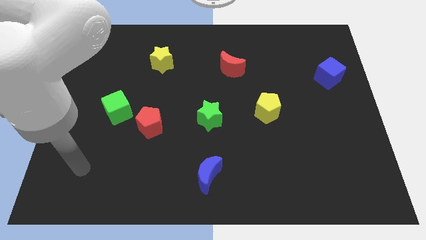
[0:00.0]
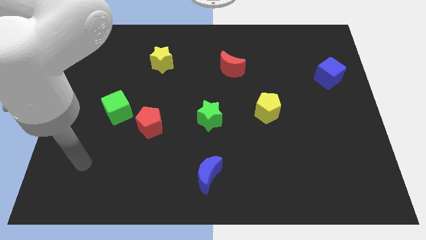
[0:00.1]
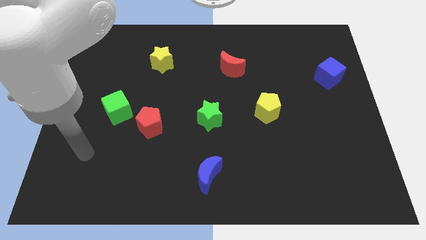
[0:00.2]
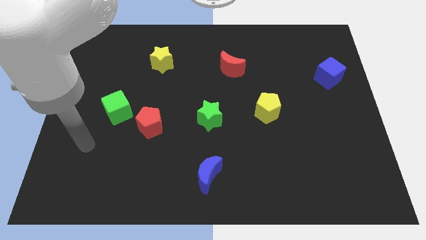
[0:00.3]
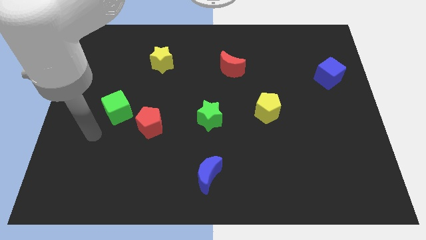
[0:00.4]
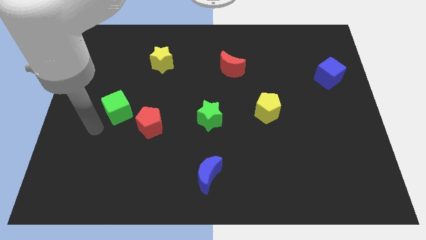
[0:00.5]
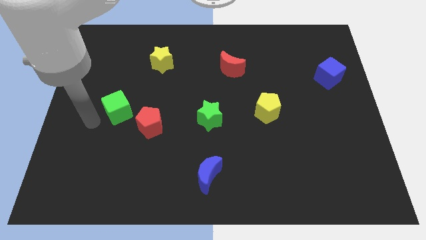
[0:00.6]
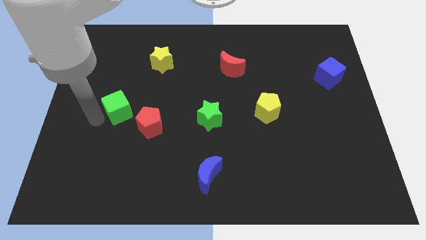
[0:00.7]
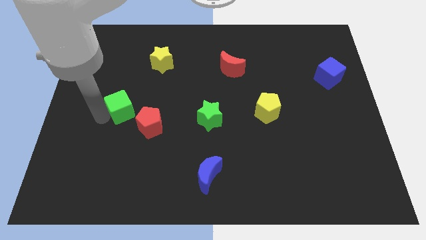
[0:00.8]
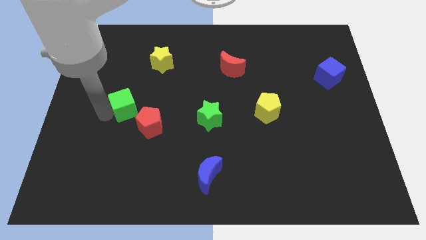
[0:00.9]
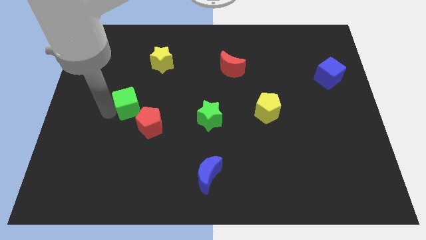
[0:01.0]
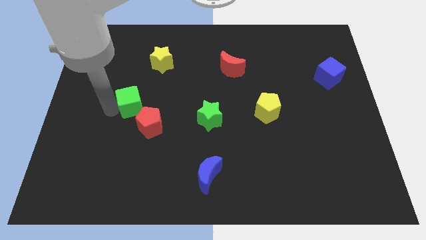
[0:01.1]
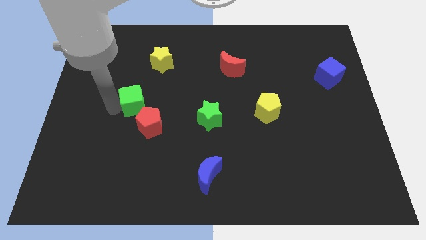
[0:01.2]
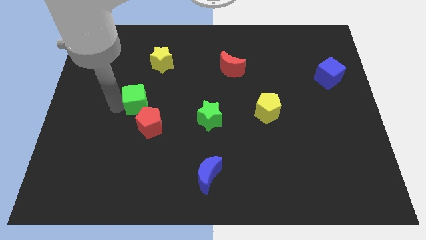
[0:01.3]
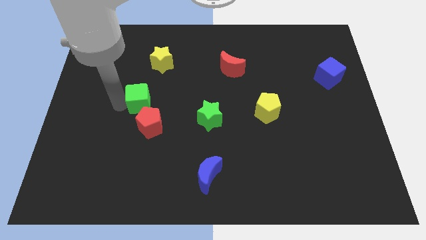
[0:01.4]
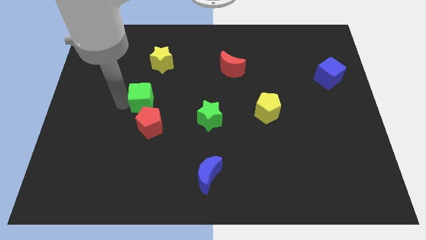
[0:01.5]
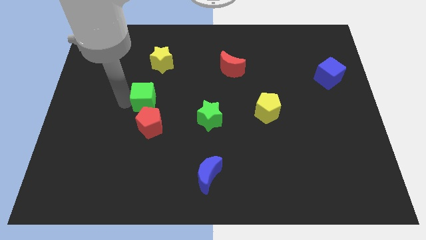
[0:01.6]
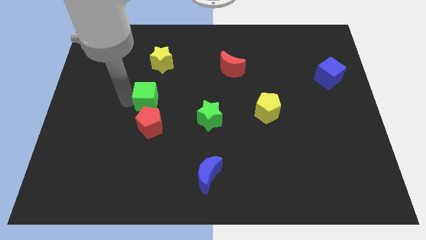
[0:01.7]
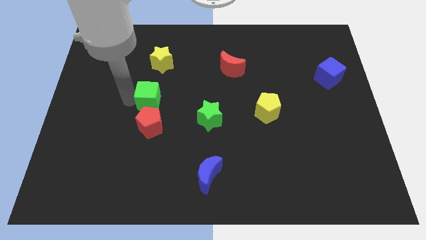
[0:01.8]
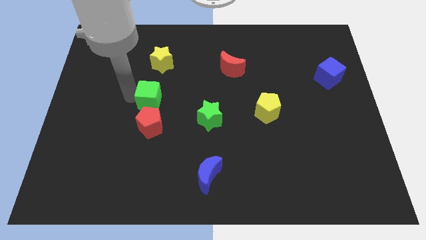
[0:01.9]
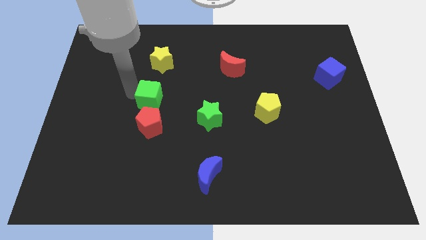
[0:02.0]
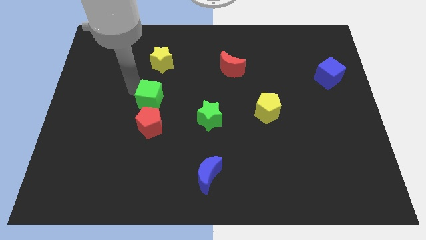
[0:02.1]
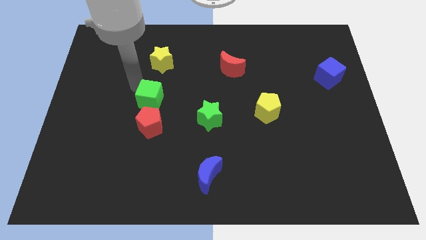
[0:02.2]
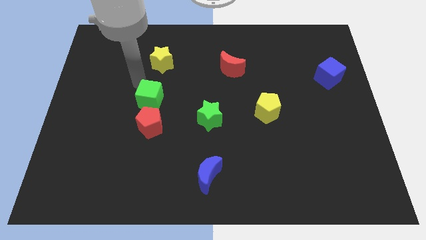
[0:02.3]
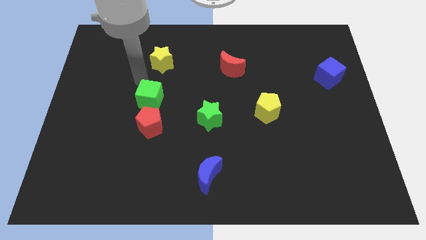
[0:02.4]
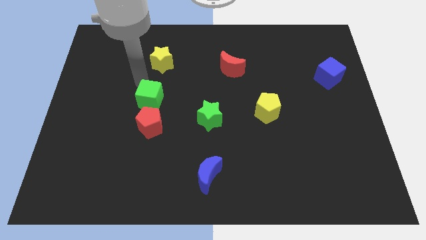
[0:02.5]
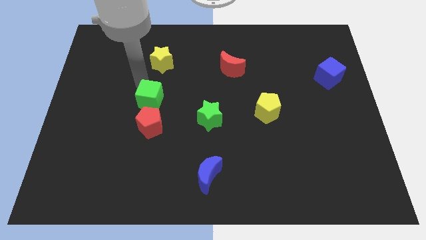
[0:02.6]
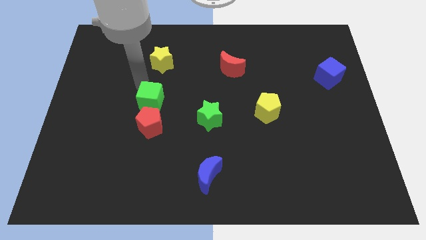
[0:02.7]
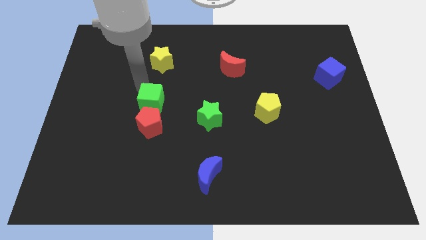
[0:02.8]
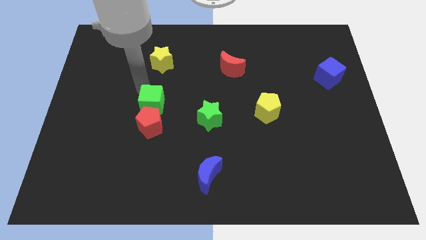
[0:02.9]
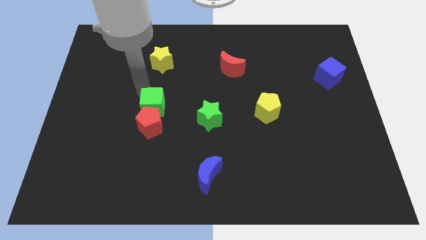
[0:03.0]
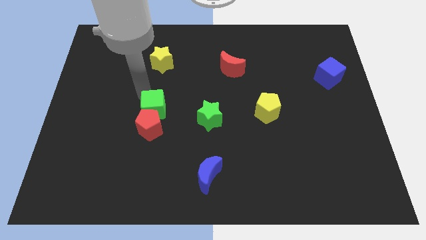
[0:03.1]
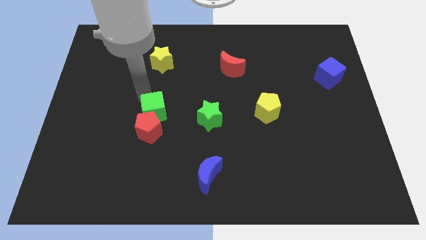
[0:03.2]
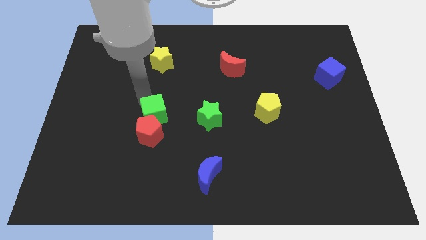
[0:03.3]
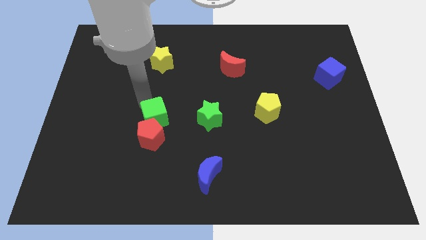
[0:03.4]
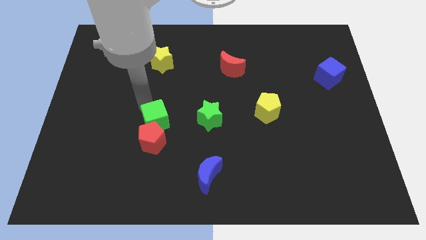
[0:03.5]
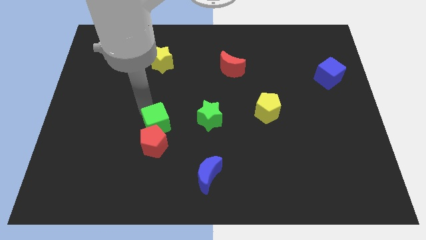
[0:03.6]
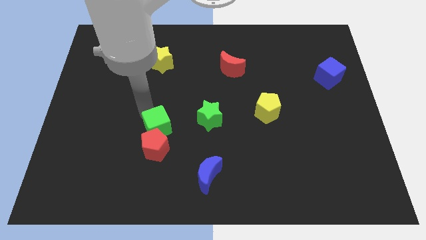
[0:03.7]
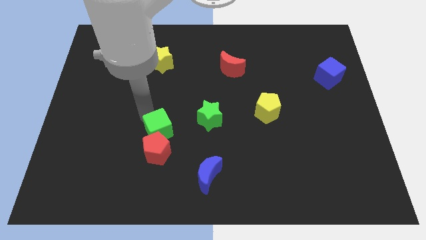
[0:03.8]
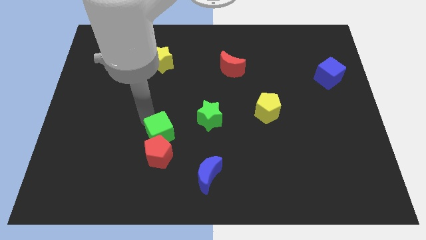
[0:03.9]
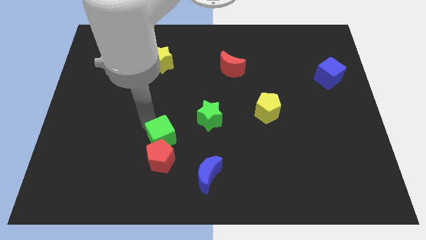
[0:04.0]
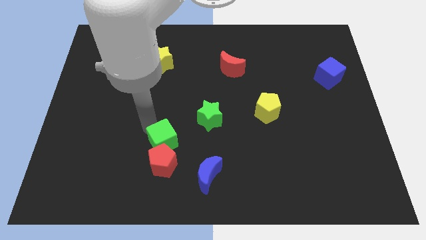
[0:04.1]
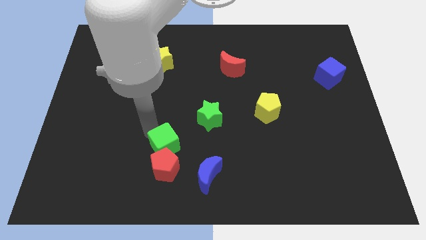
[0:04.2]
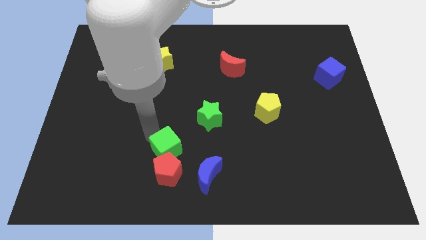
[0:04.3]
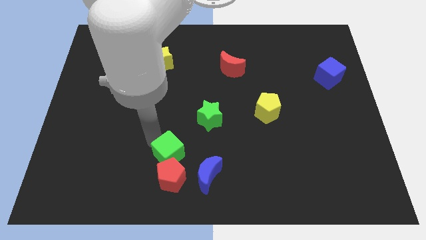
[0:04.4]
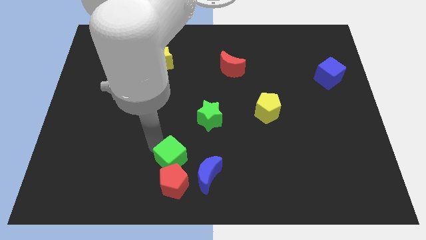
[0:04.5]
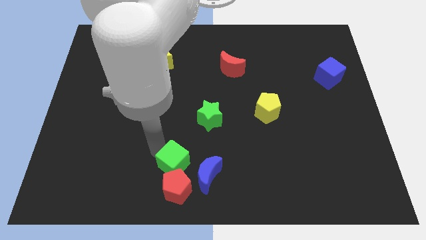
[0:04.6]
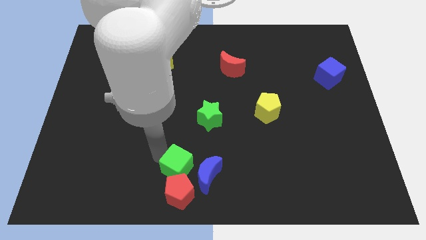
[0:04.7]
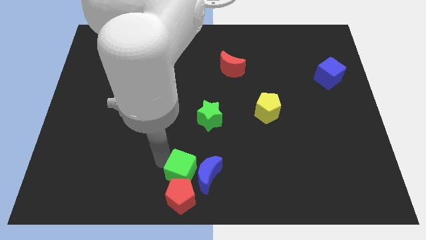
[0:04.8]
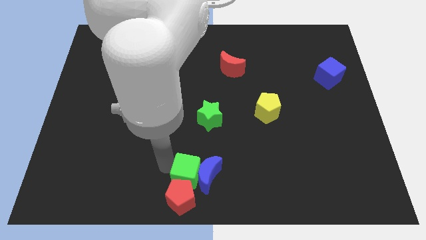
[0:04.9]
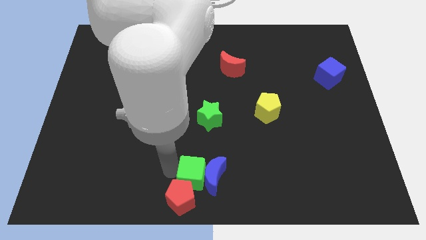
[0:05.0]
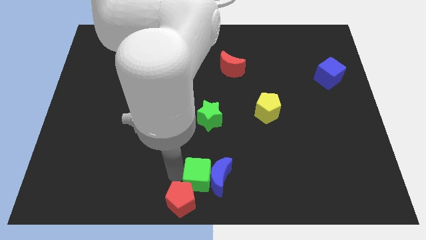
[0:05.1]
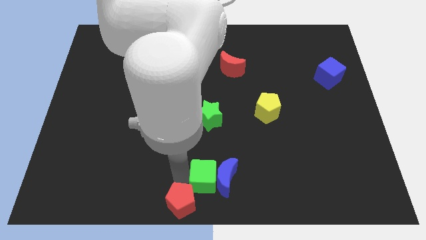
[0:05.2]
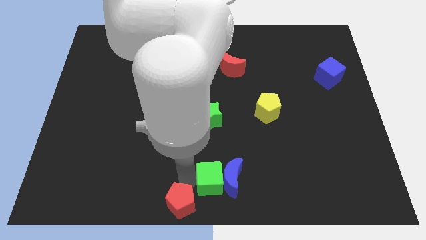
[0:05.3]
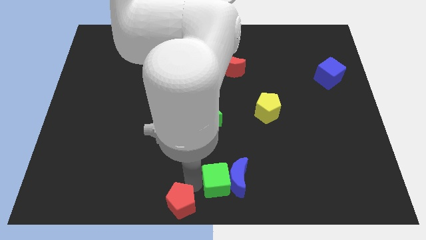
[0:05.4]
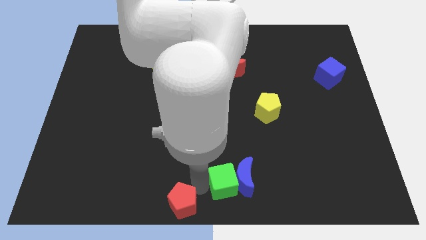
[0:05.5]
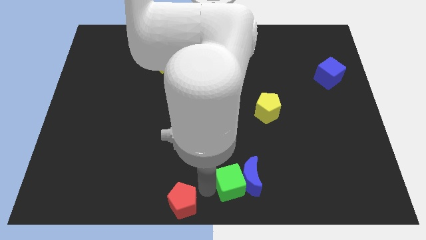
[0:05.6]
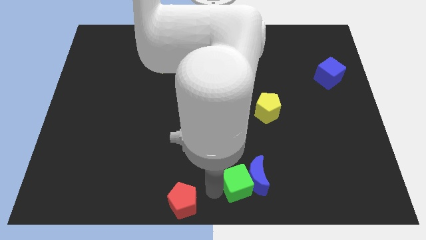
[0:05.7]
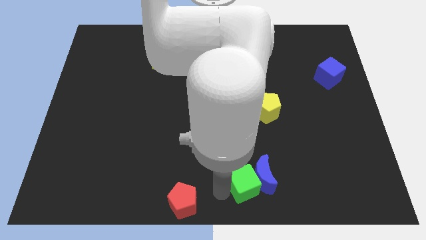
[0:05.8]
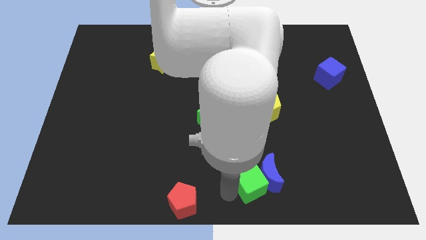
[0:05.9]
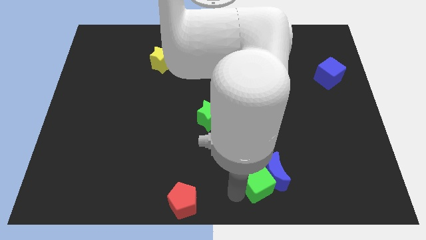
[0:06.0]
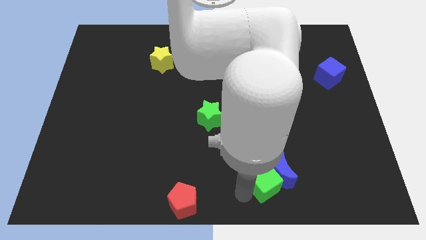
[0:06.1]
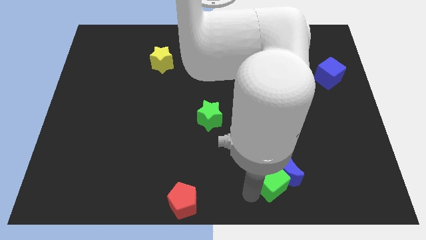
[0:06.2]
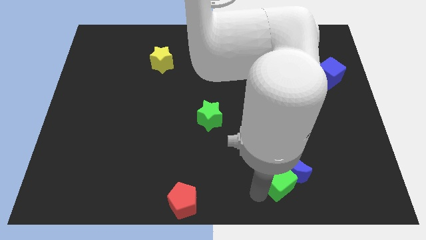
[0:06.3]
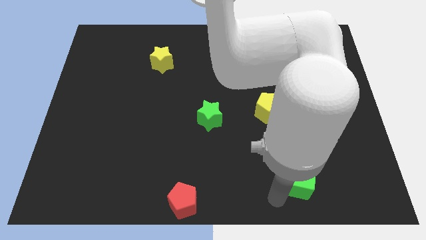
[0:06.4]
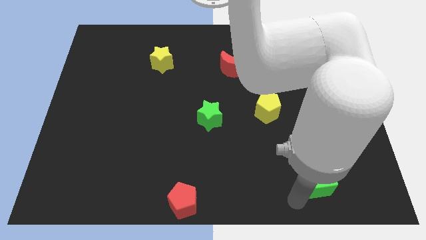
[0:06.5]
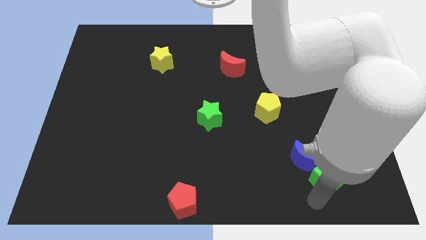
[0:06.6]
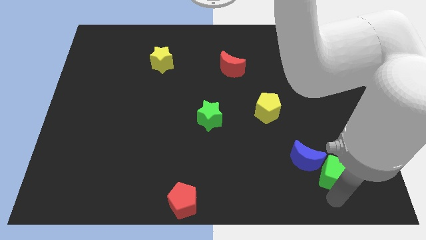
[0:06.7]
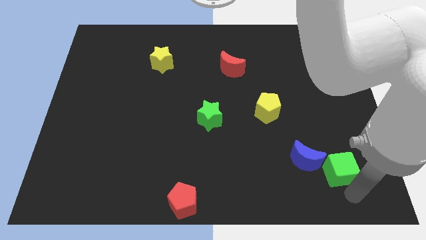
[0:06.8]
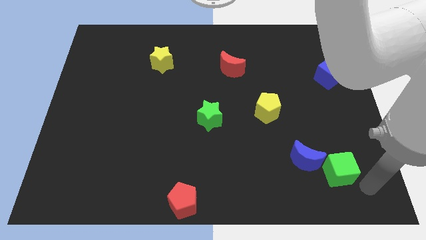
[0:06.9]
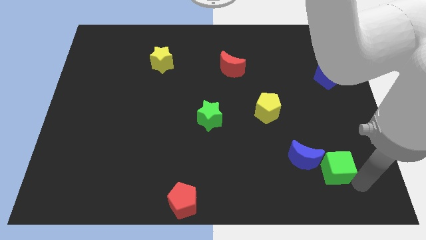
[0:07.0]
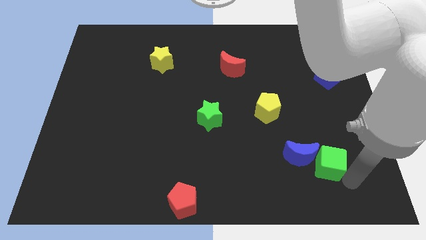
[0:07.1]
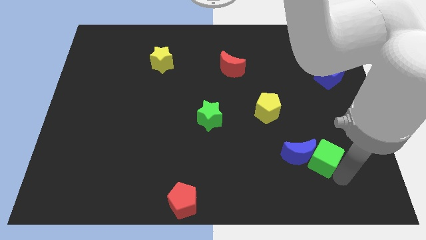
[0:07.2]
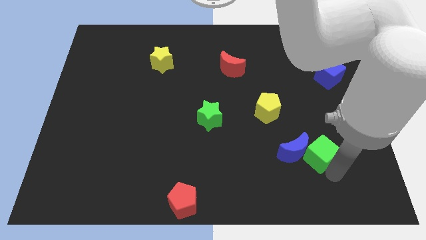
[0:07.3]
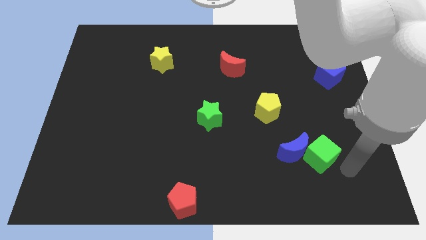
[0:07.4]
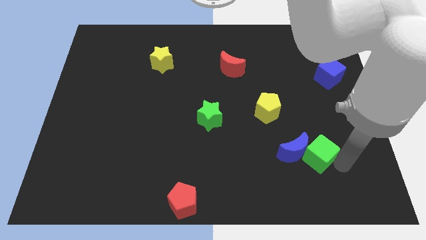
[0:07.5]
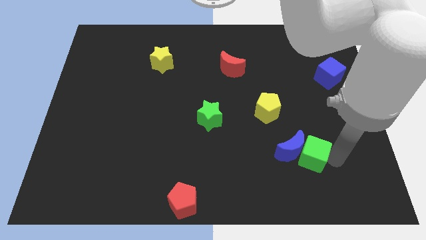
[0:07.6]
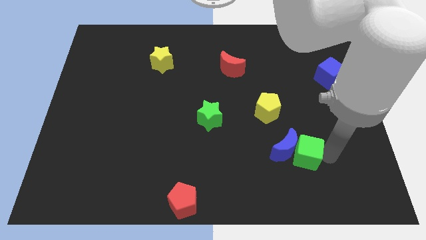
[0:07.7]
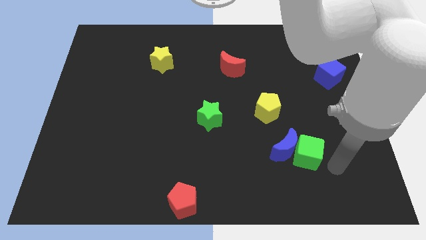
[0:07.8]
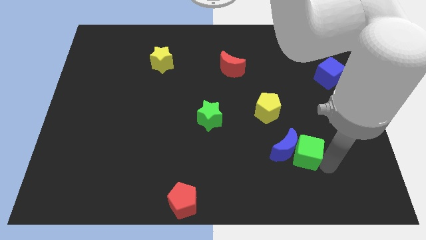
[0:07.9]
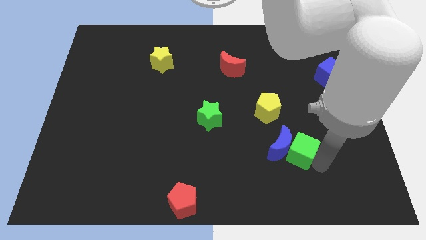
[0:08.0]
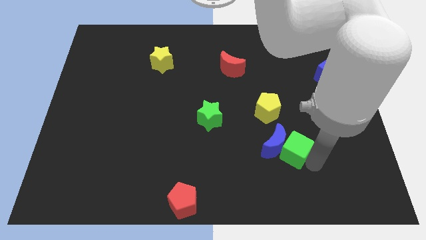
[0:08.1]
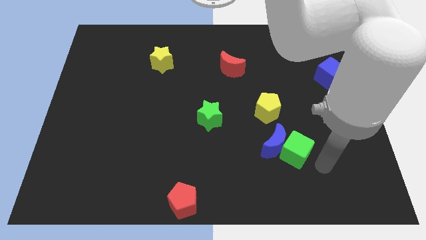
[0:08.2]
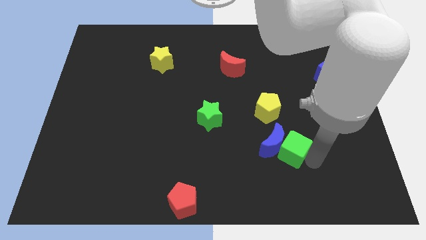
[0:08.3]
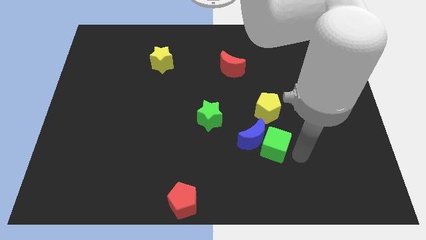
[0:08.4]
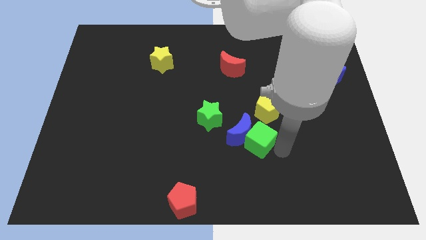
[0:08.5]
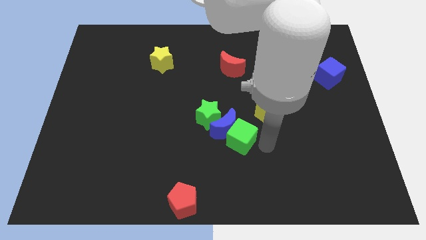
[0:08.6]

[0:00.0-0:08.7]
slide the green cube to the center of the board
